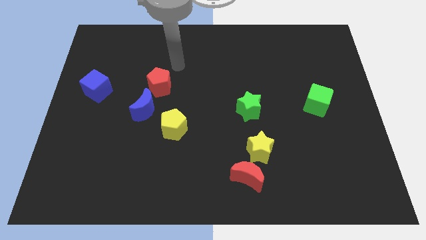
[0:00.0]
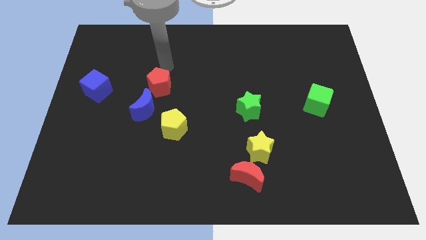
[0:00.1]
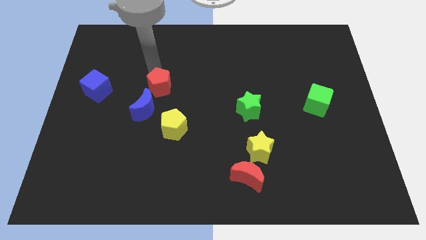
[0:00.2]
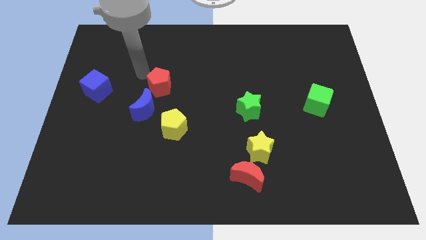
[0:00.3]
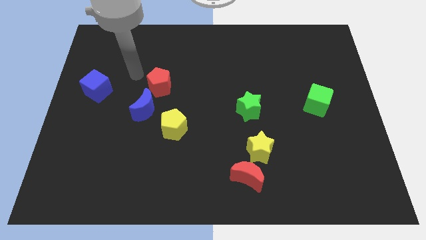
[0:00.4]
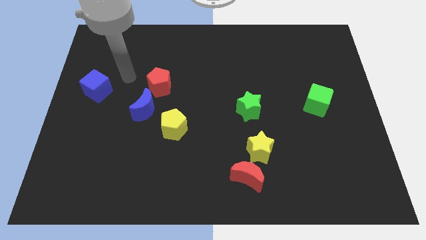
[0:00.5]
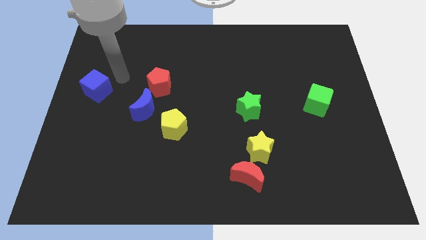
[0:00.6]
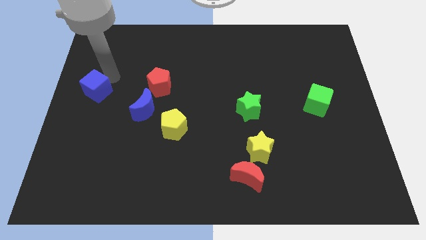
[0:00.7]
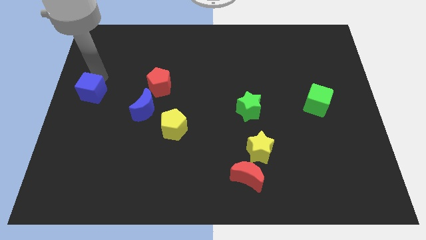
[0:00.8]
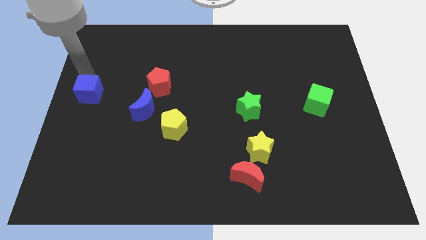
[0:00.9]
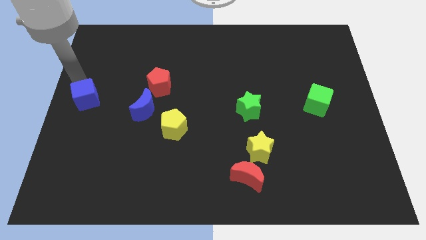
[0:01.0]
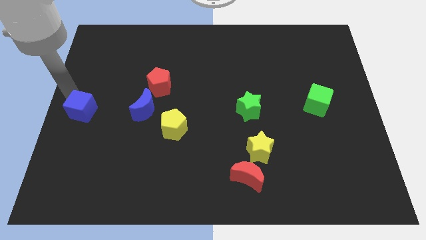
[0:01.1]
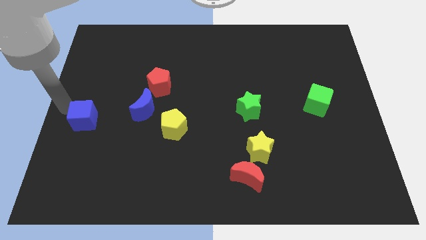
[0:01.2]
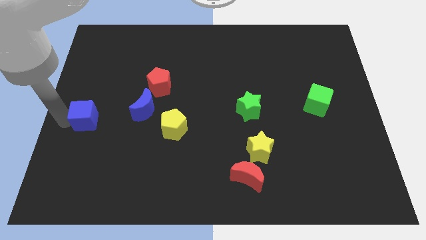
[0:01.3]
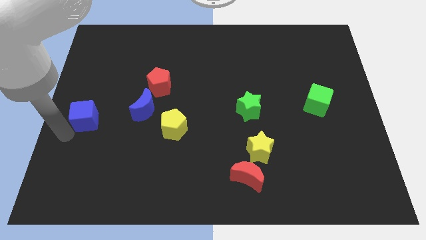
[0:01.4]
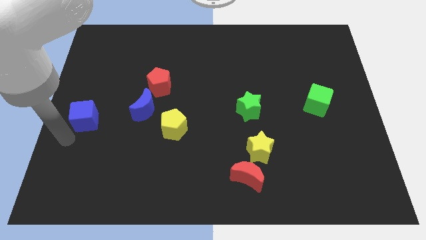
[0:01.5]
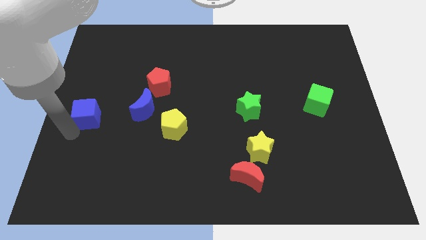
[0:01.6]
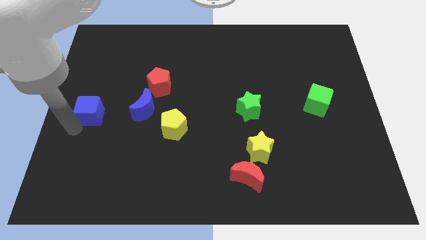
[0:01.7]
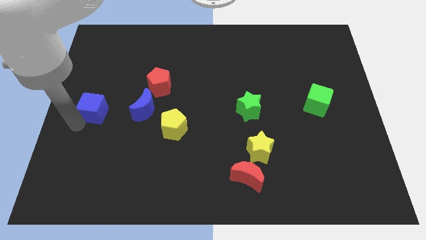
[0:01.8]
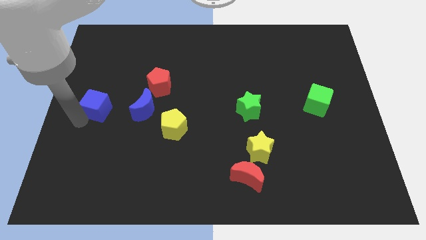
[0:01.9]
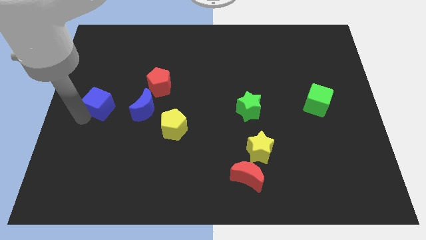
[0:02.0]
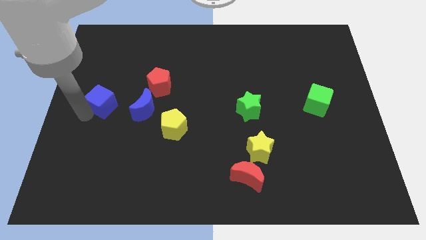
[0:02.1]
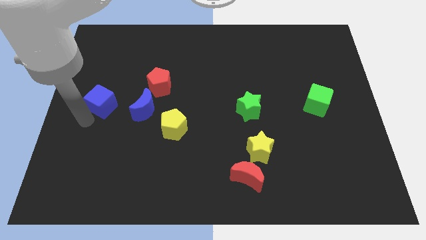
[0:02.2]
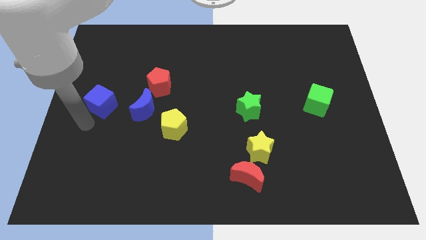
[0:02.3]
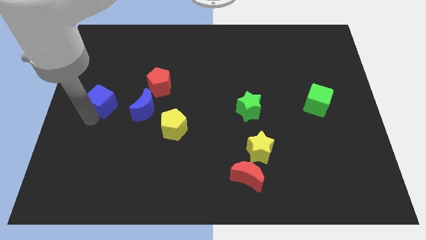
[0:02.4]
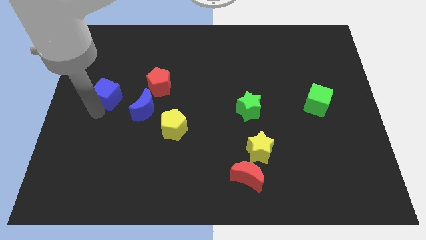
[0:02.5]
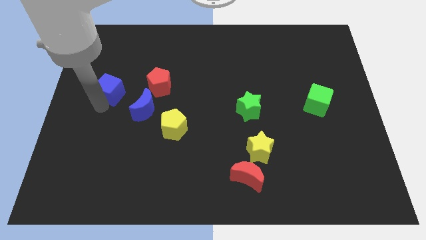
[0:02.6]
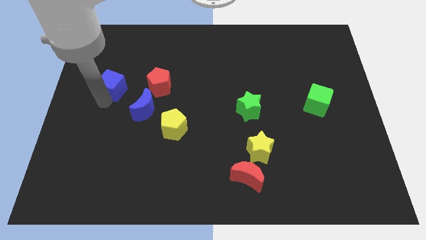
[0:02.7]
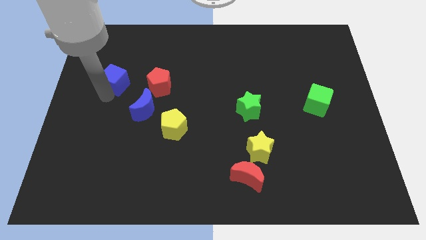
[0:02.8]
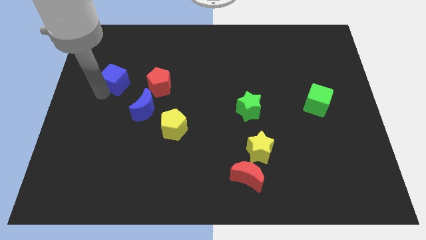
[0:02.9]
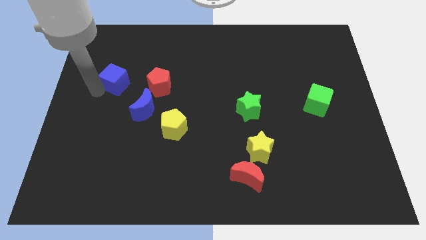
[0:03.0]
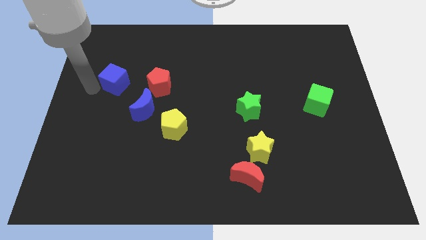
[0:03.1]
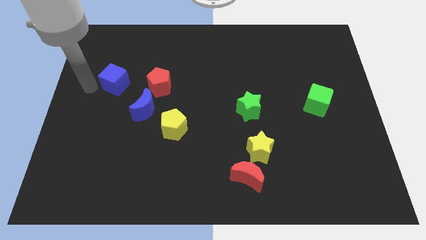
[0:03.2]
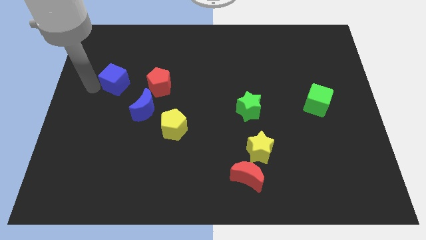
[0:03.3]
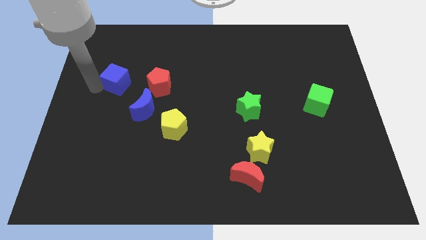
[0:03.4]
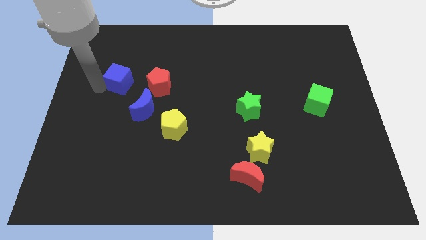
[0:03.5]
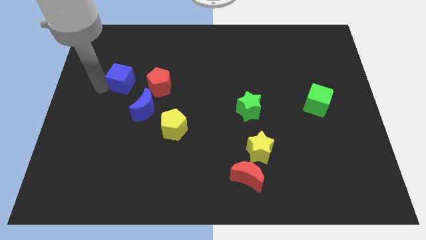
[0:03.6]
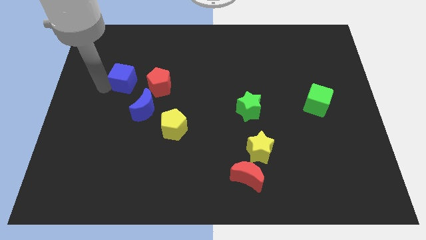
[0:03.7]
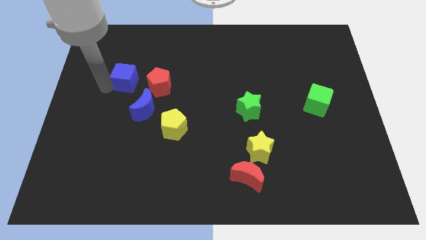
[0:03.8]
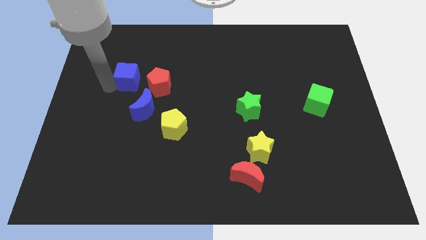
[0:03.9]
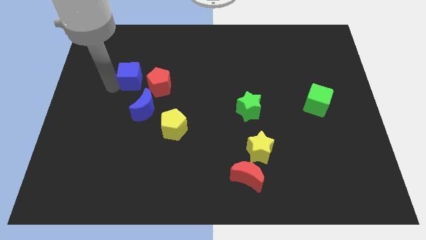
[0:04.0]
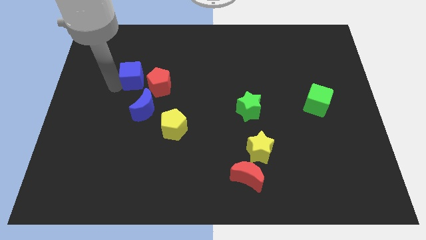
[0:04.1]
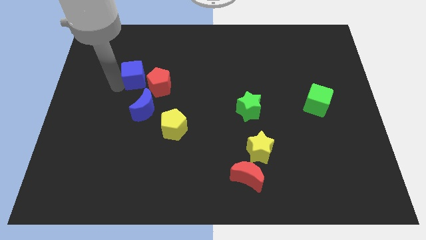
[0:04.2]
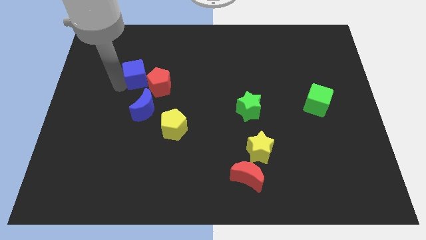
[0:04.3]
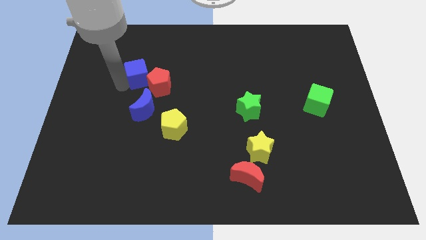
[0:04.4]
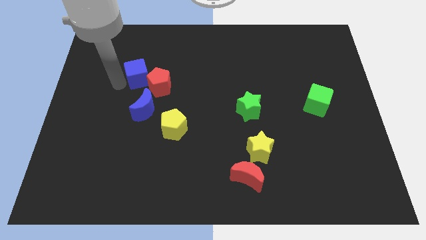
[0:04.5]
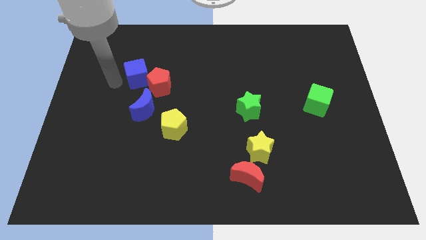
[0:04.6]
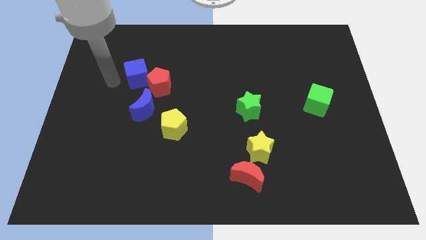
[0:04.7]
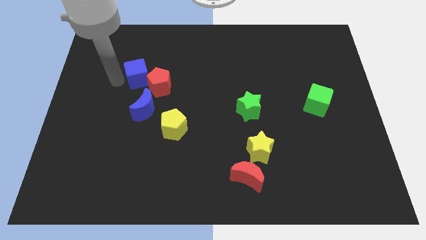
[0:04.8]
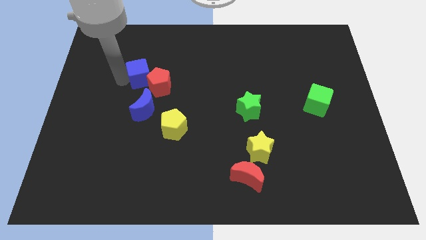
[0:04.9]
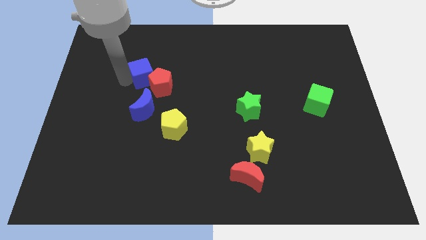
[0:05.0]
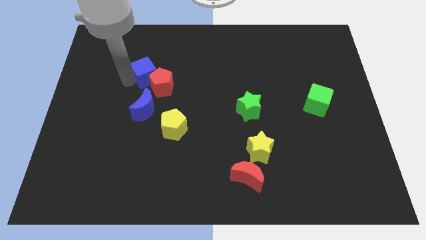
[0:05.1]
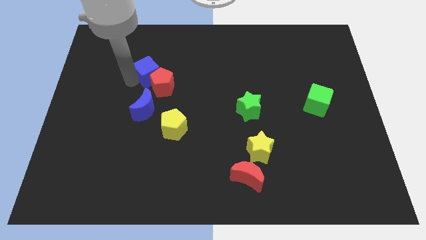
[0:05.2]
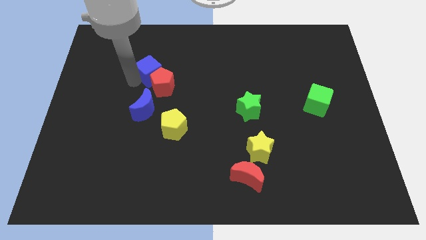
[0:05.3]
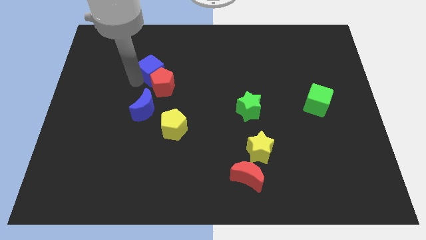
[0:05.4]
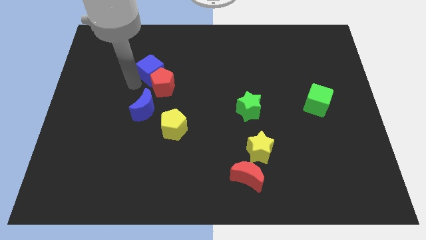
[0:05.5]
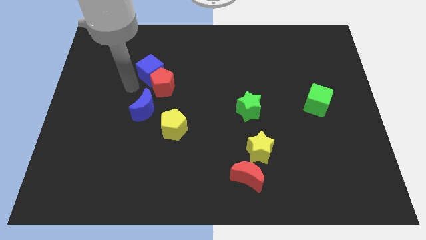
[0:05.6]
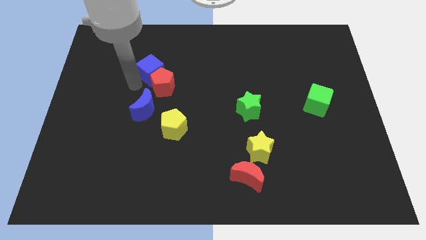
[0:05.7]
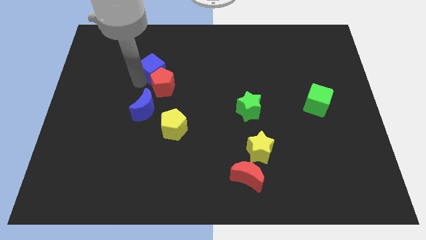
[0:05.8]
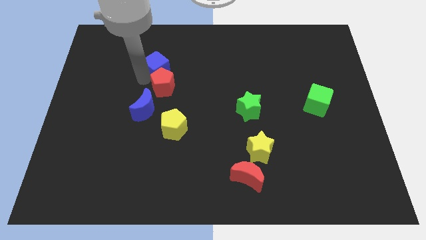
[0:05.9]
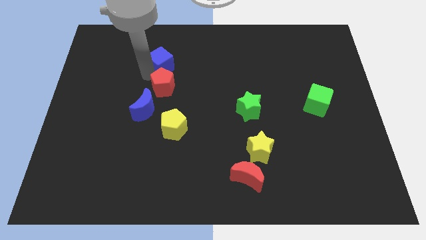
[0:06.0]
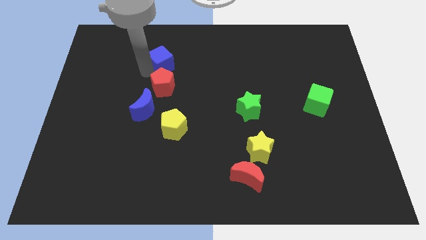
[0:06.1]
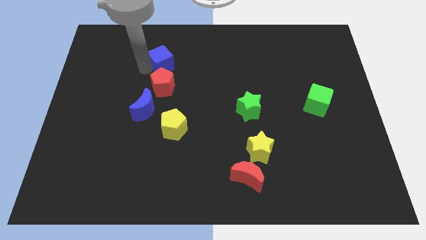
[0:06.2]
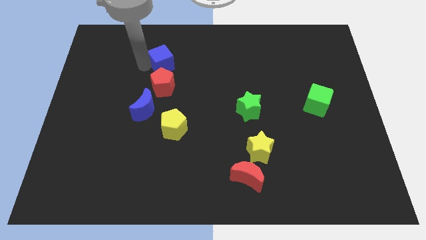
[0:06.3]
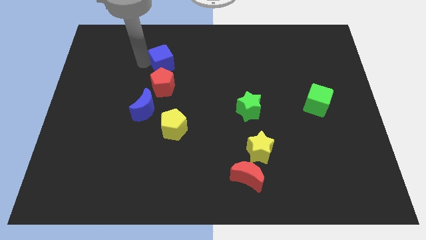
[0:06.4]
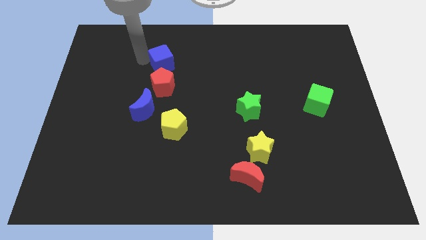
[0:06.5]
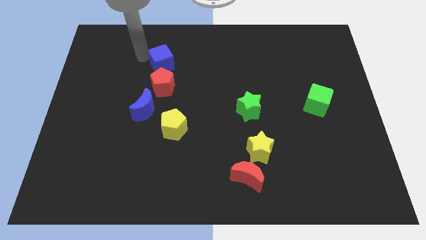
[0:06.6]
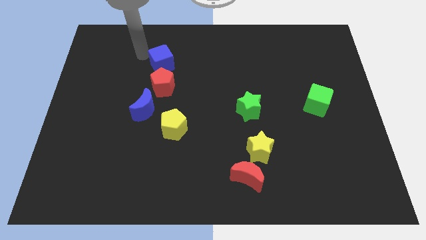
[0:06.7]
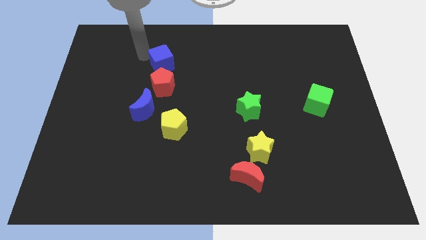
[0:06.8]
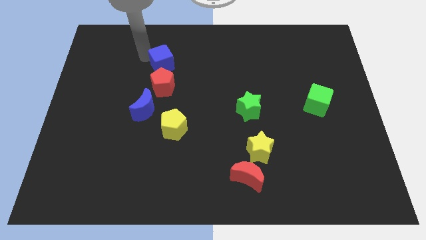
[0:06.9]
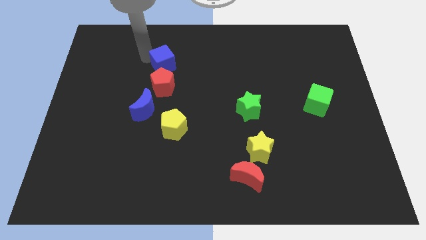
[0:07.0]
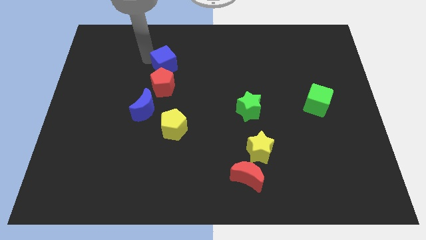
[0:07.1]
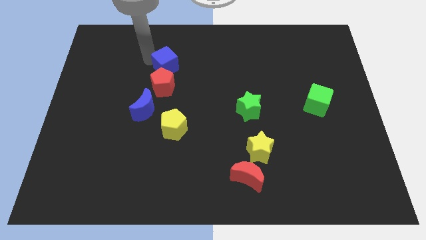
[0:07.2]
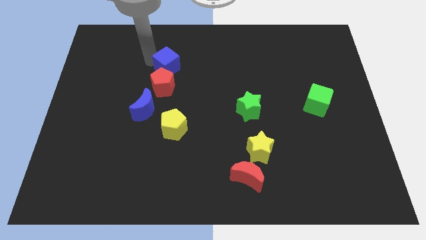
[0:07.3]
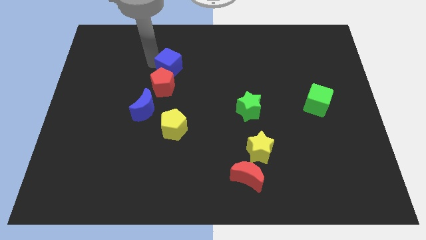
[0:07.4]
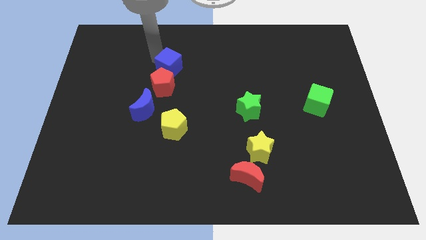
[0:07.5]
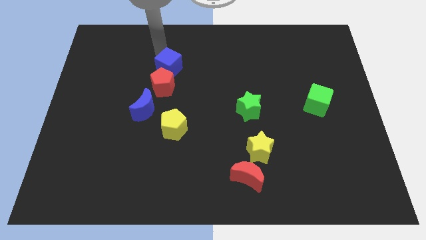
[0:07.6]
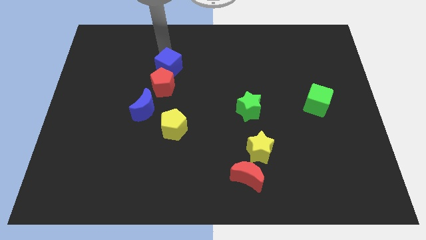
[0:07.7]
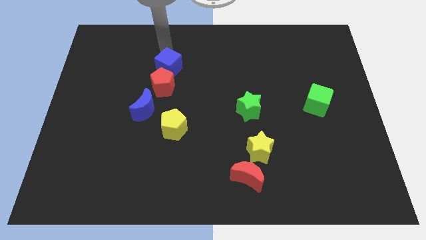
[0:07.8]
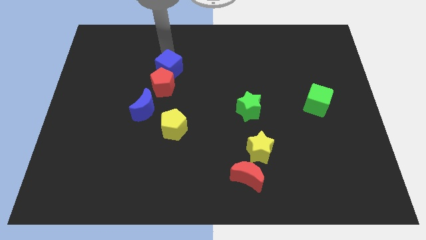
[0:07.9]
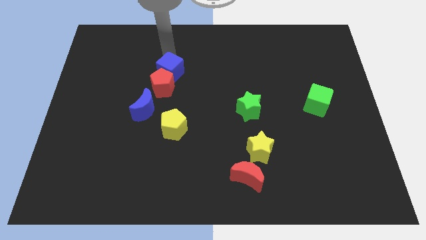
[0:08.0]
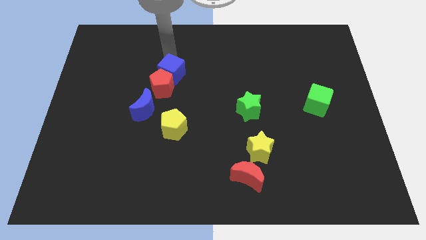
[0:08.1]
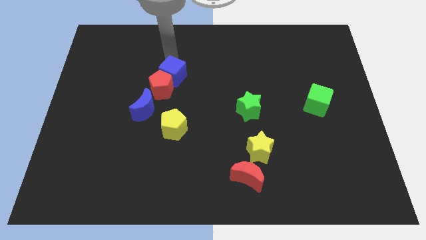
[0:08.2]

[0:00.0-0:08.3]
put the blue cube to the top side of the yellow pentagon
